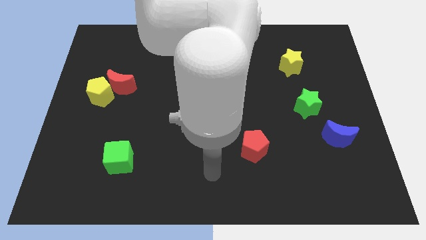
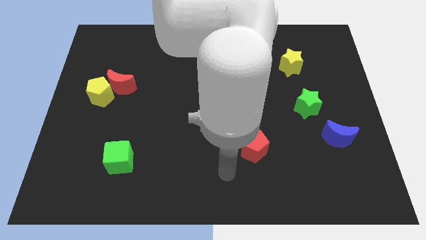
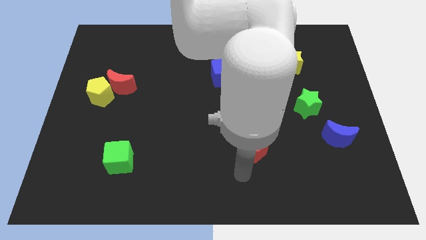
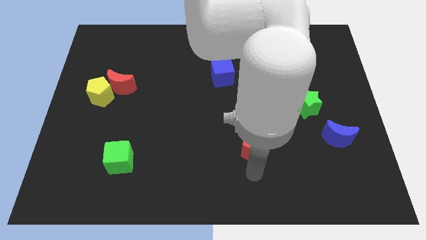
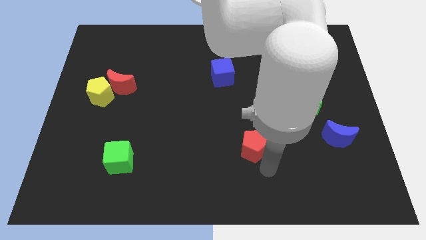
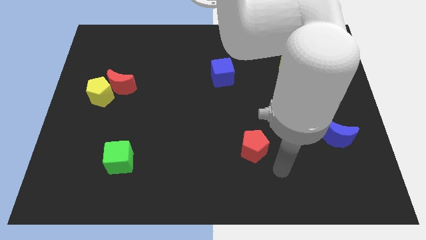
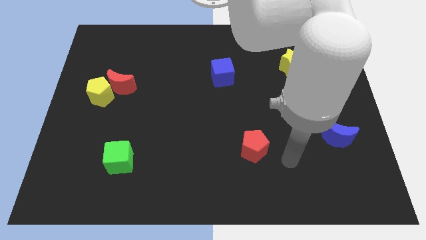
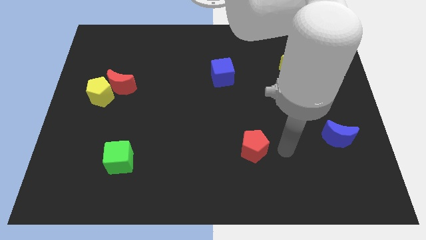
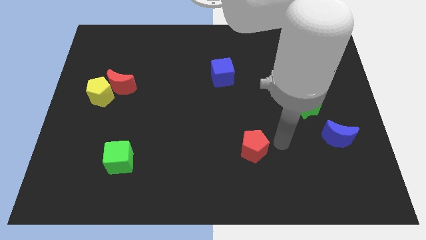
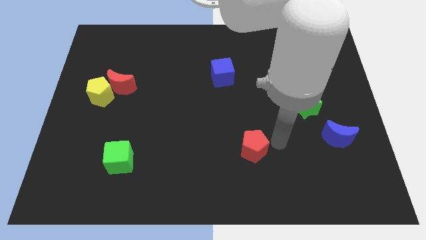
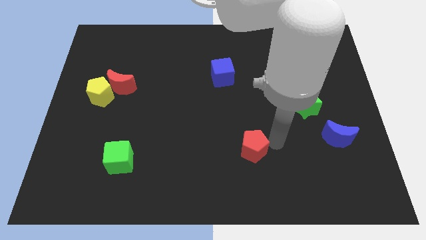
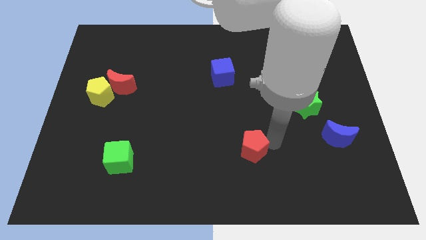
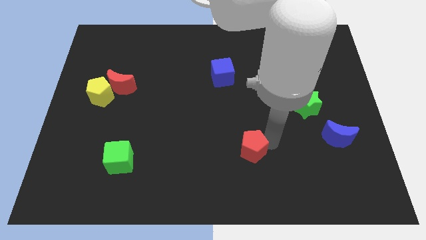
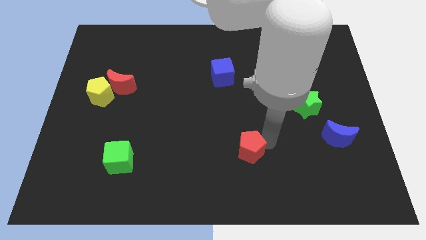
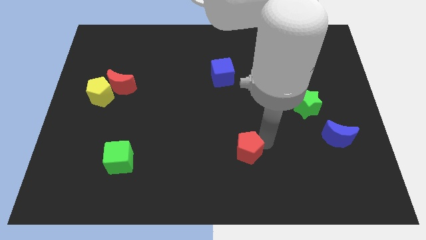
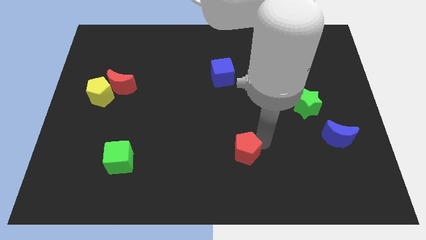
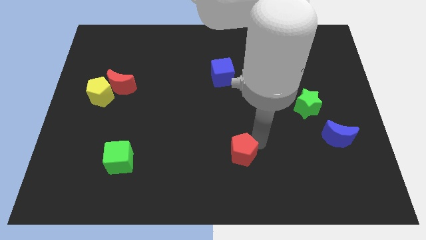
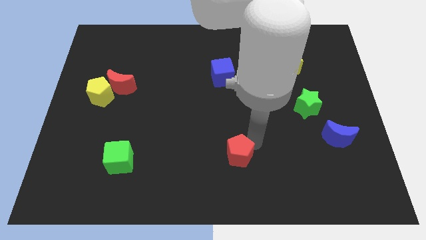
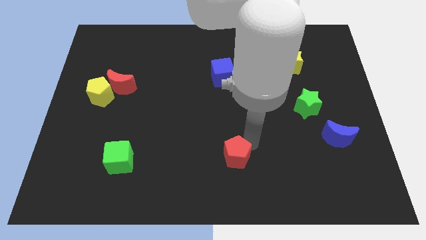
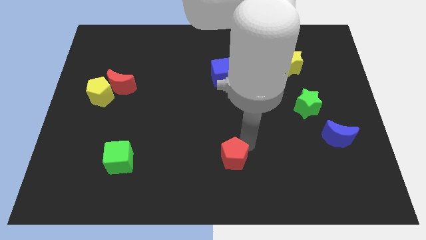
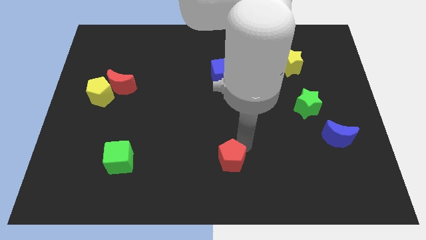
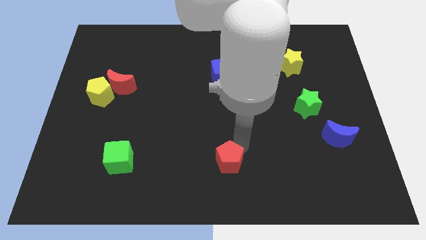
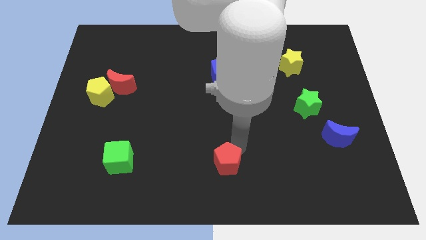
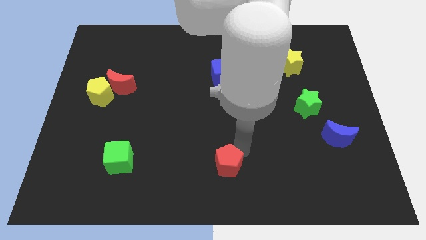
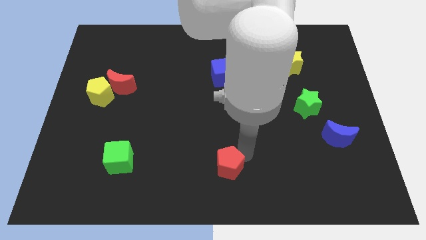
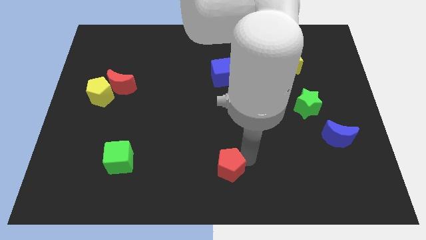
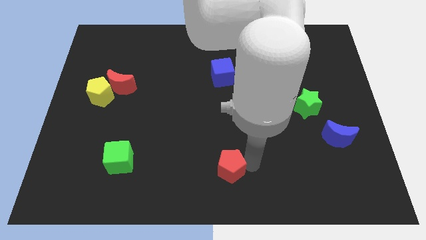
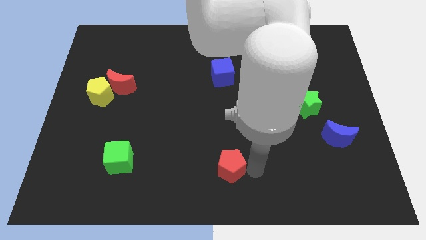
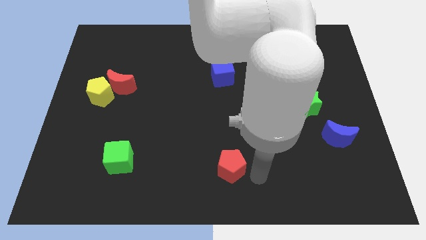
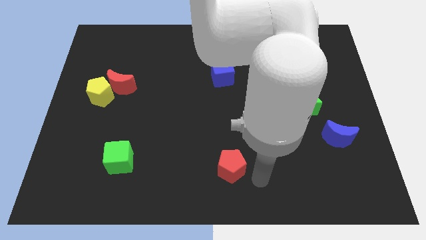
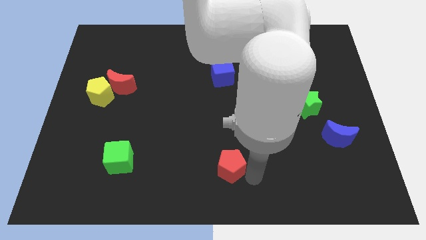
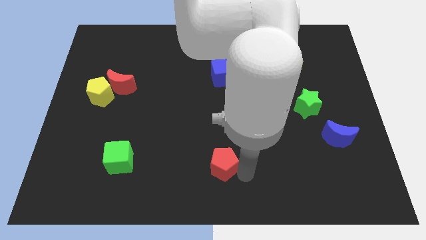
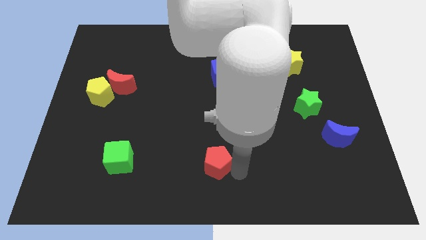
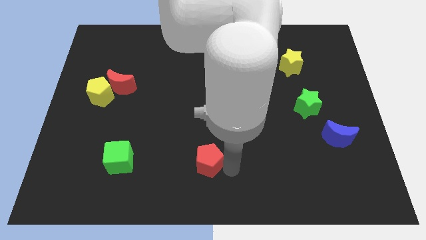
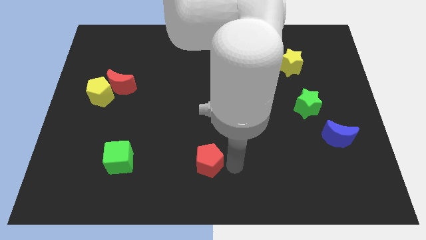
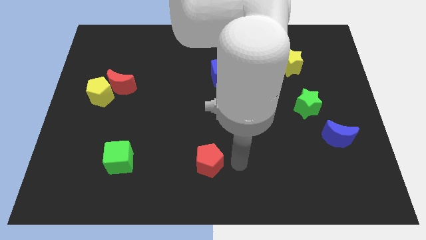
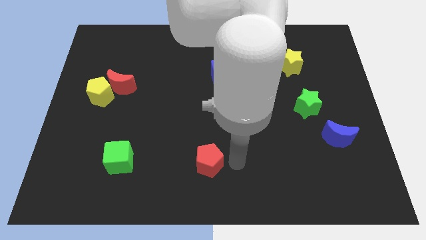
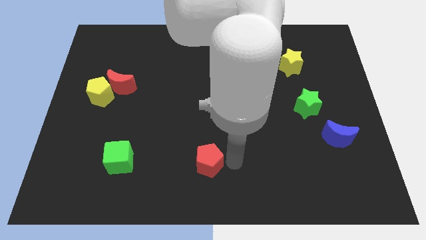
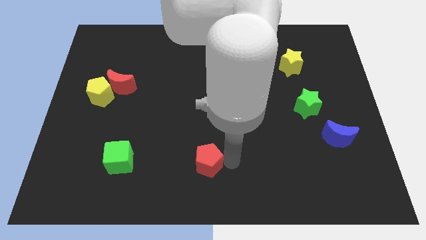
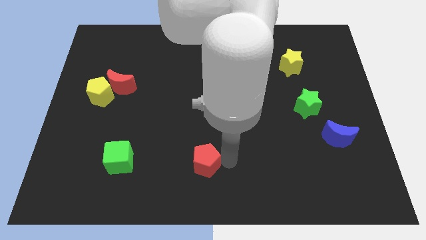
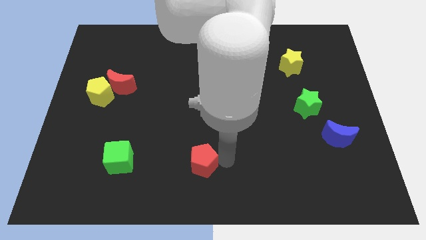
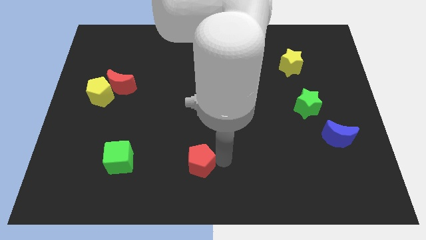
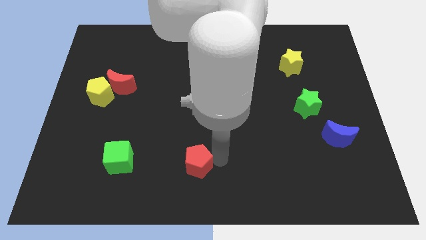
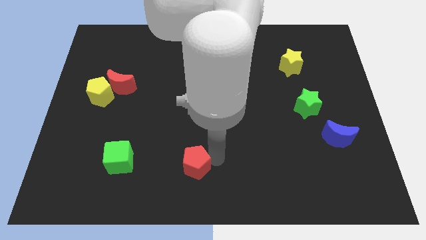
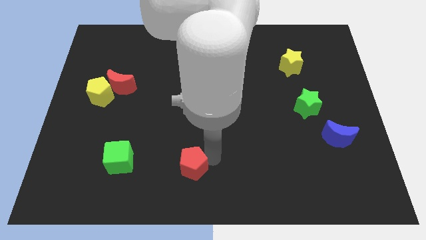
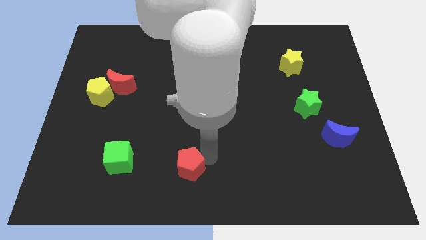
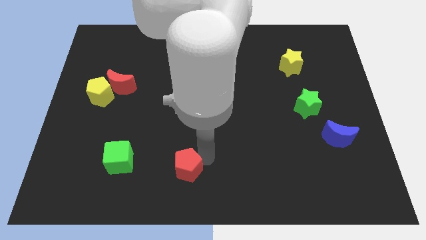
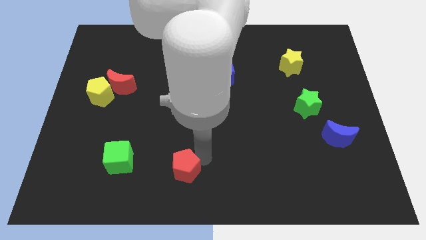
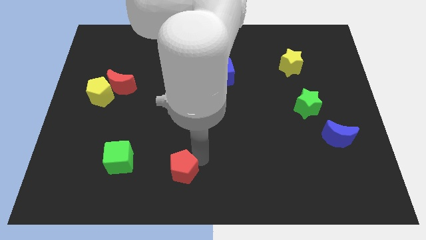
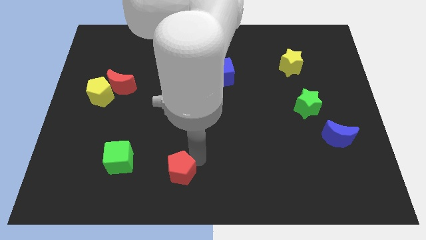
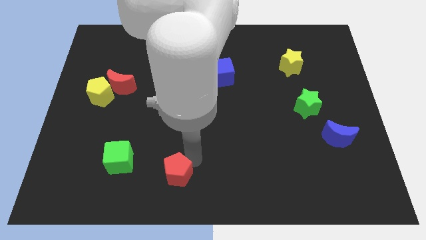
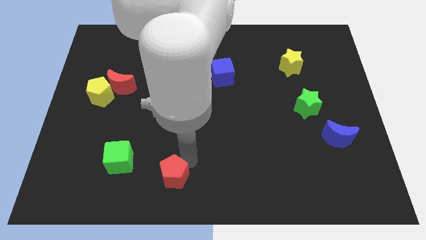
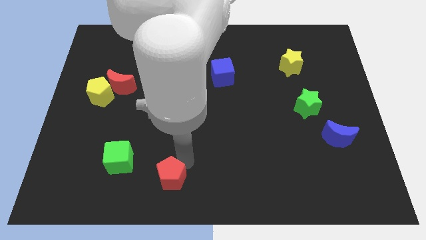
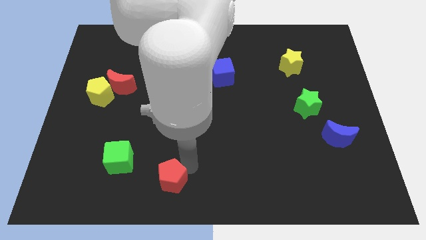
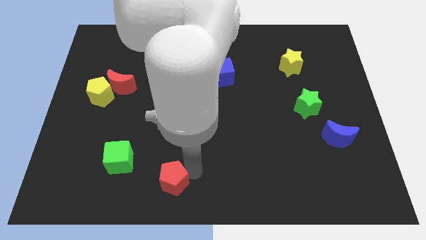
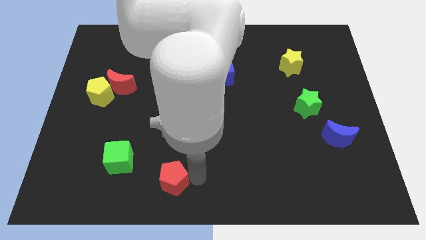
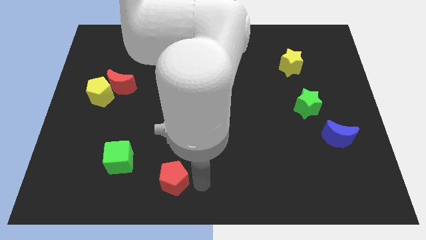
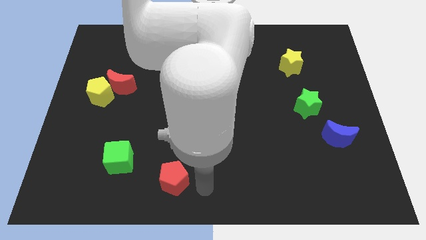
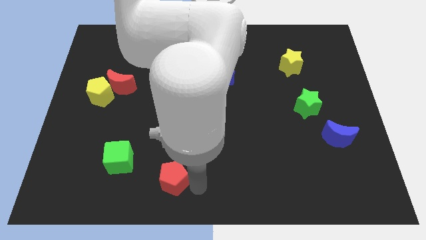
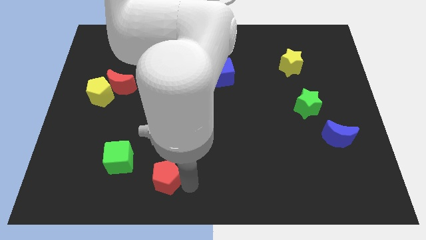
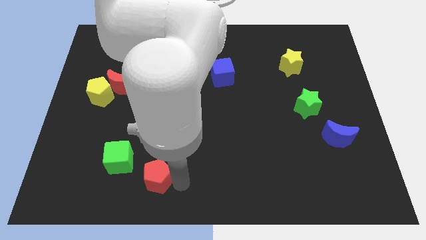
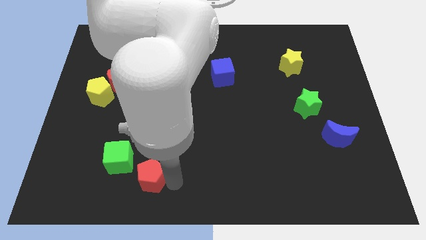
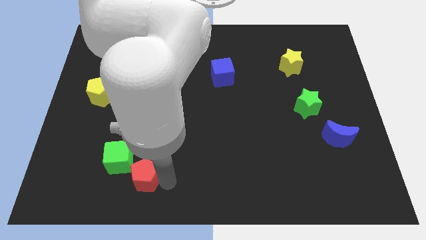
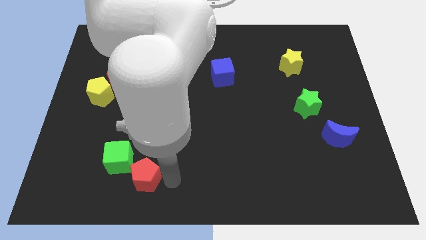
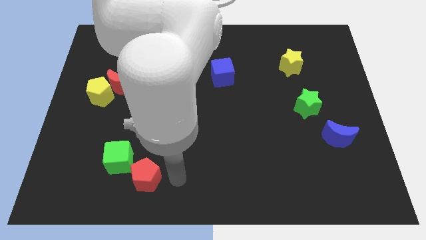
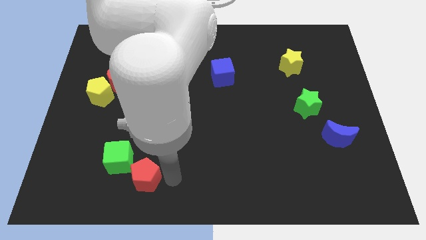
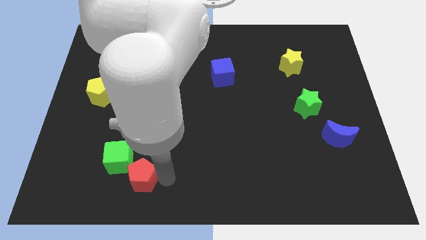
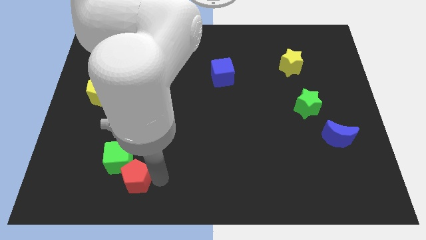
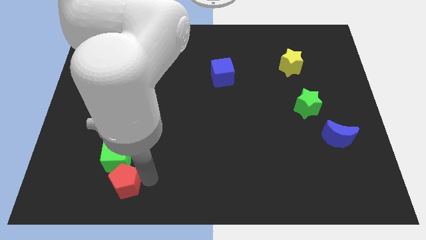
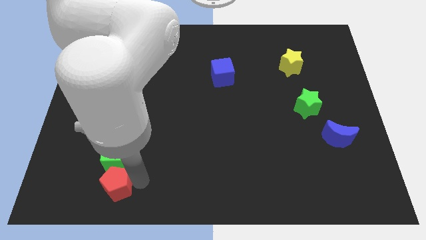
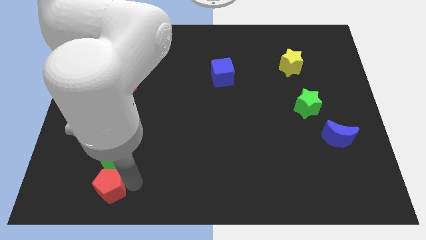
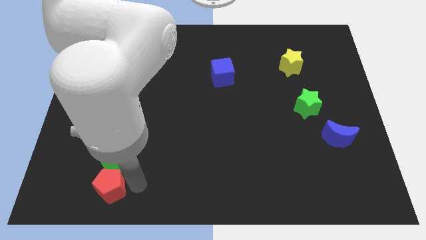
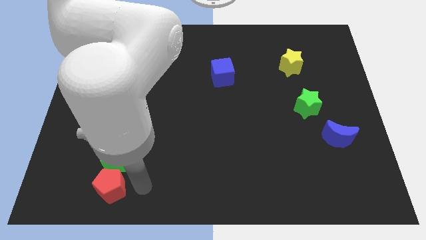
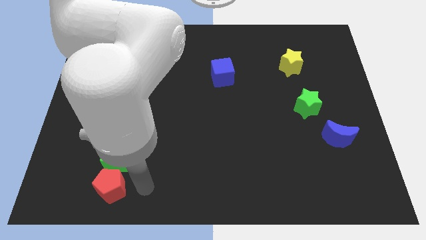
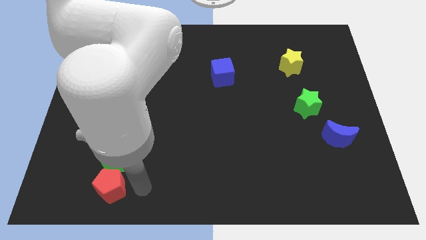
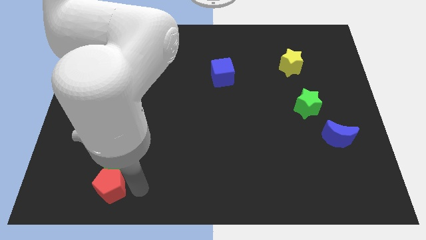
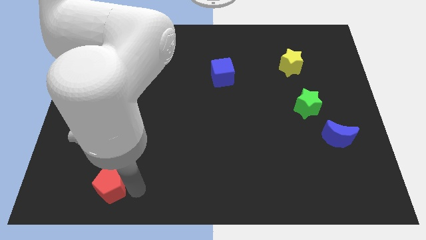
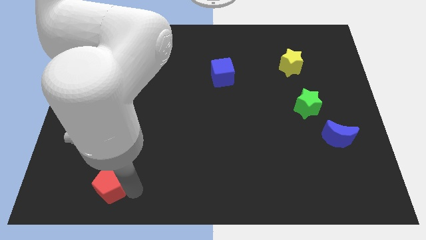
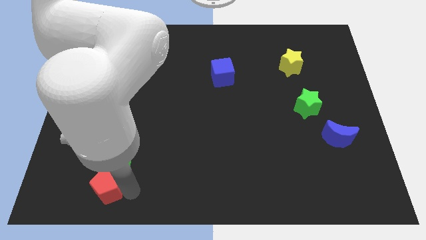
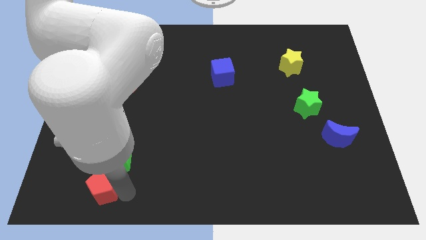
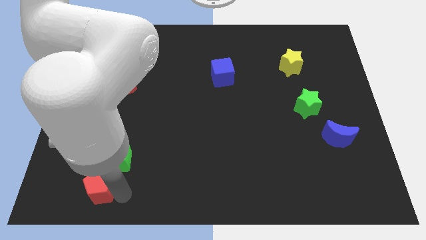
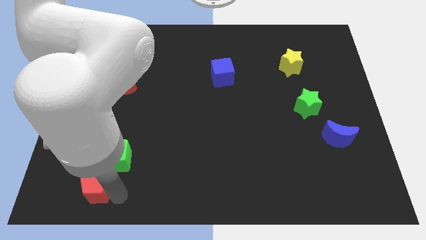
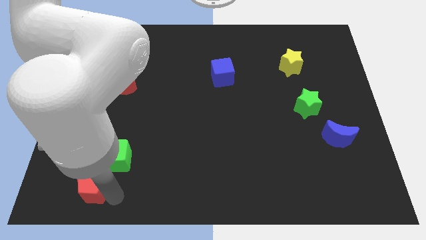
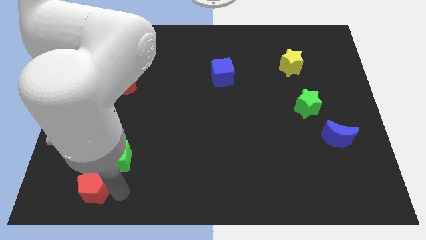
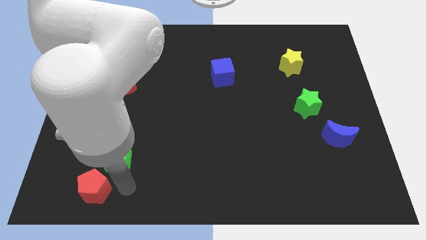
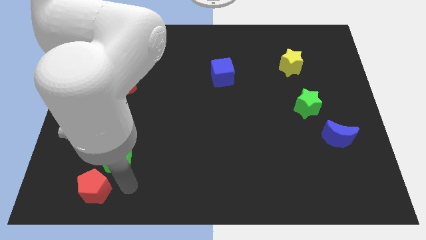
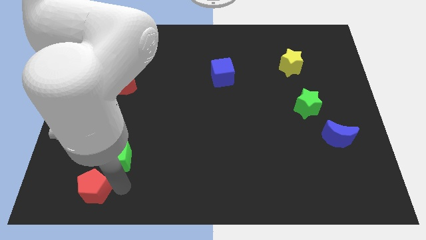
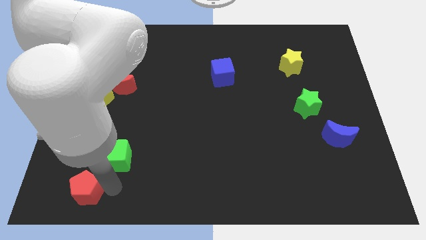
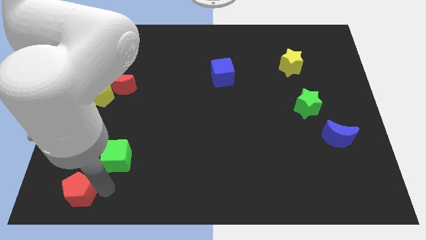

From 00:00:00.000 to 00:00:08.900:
move the red pentagon to the lower left corner
